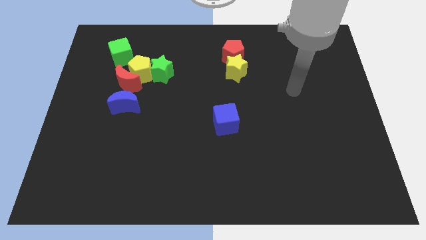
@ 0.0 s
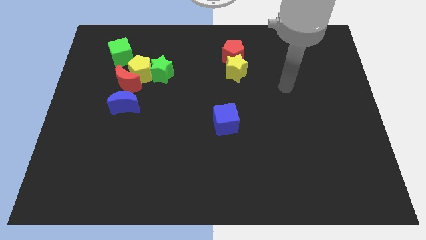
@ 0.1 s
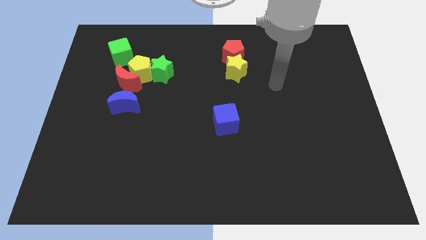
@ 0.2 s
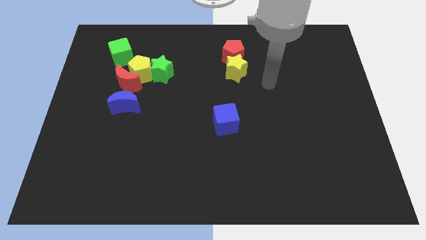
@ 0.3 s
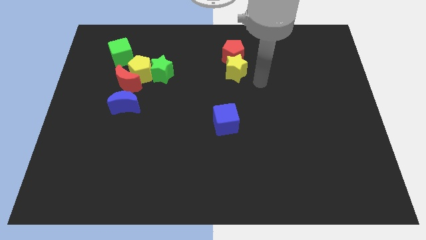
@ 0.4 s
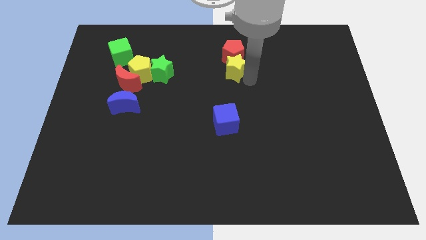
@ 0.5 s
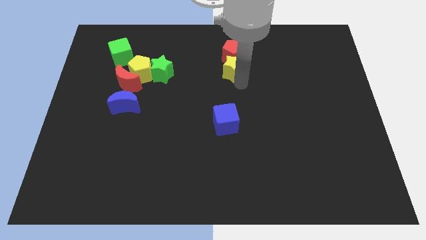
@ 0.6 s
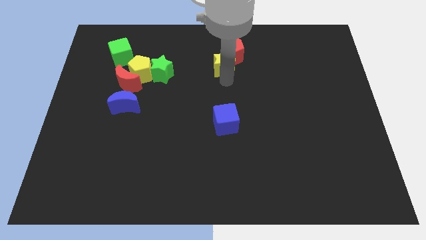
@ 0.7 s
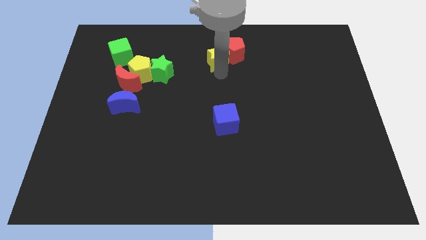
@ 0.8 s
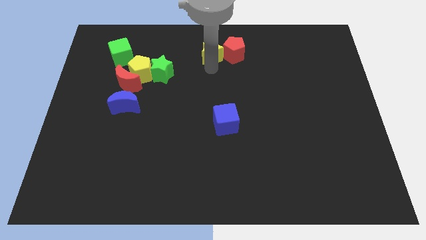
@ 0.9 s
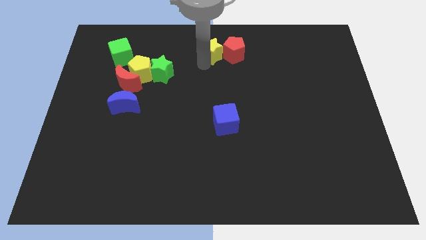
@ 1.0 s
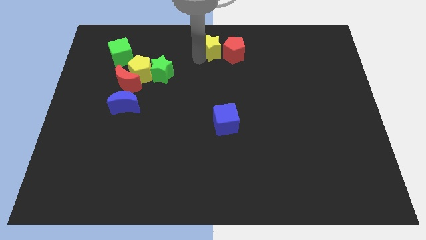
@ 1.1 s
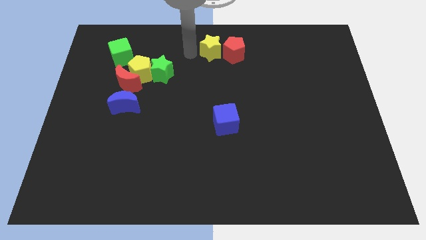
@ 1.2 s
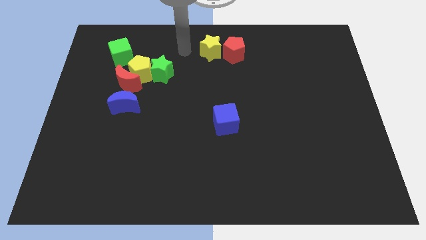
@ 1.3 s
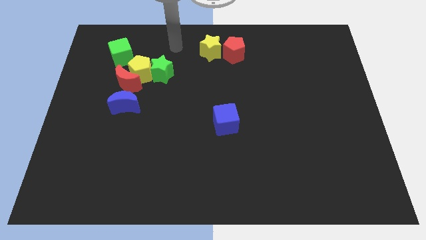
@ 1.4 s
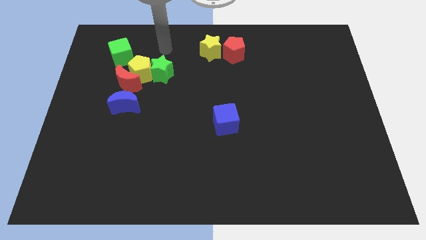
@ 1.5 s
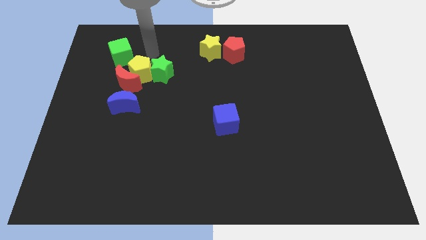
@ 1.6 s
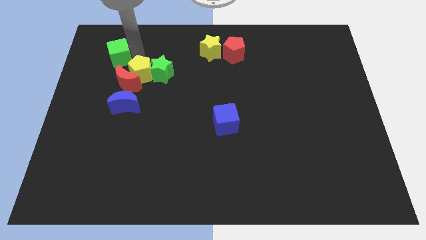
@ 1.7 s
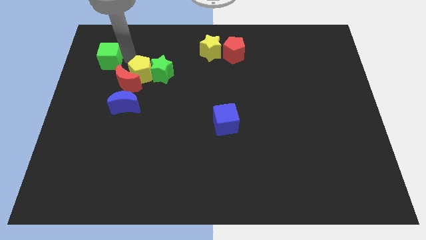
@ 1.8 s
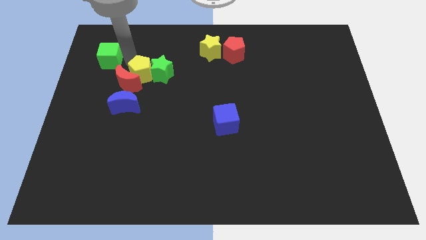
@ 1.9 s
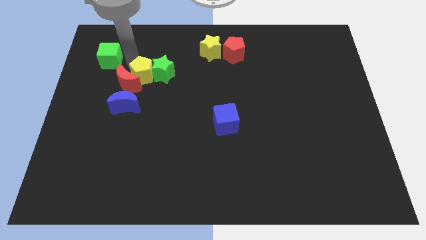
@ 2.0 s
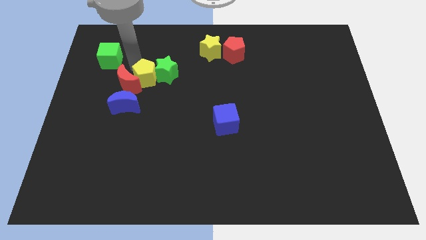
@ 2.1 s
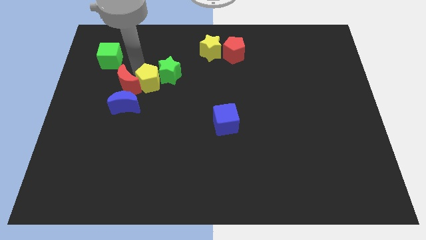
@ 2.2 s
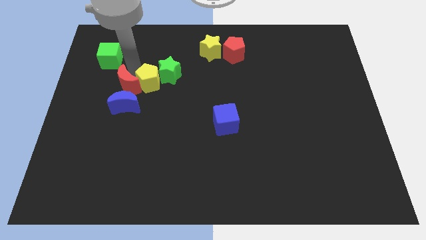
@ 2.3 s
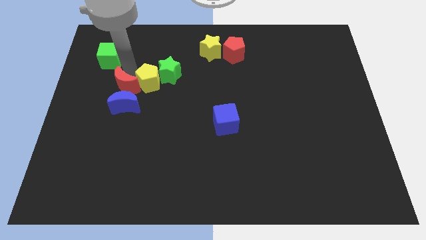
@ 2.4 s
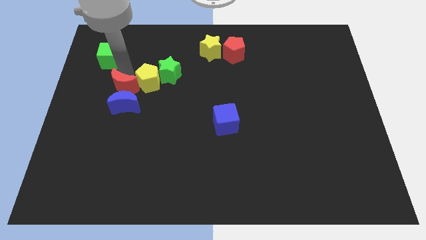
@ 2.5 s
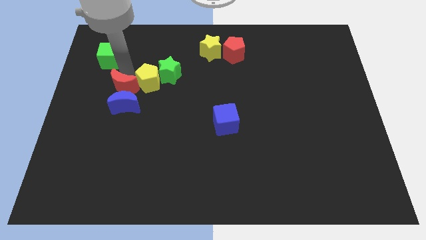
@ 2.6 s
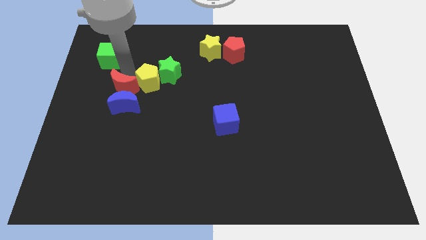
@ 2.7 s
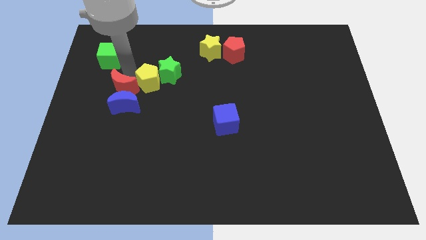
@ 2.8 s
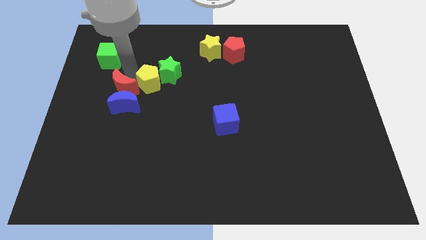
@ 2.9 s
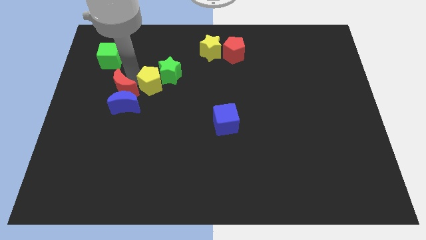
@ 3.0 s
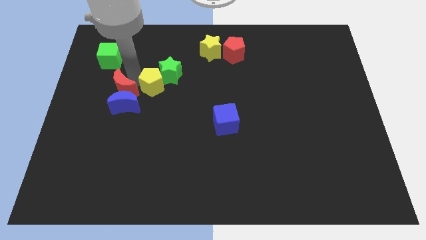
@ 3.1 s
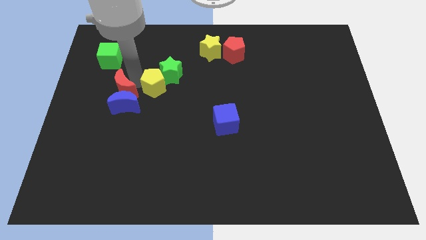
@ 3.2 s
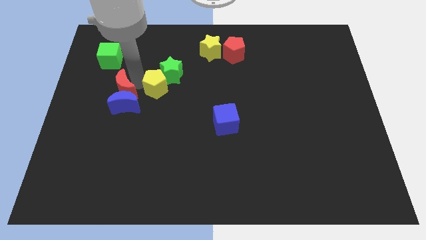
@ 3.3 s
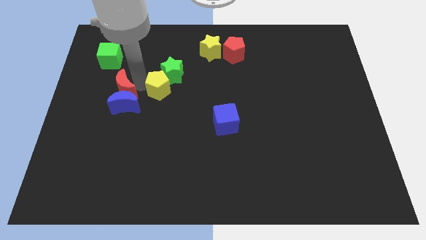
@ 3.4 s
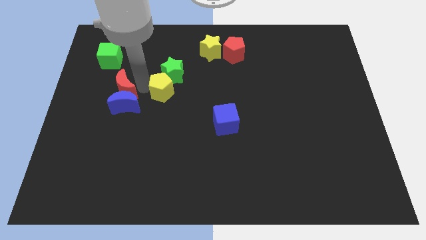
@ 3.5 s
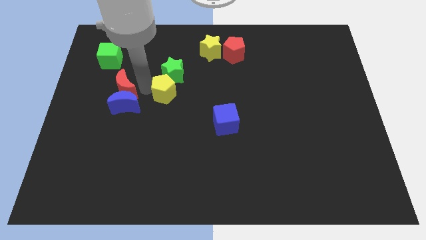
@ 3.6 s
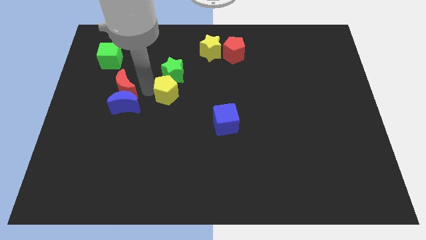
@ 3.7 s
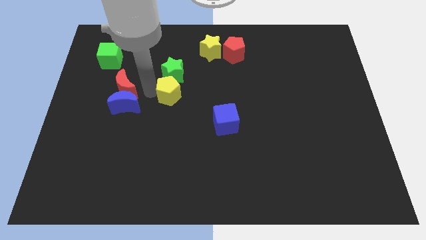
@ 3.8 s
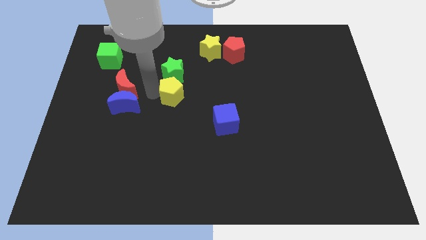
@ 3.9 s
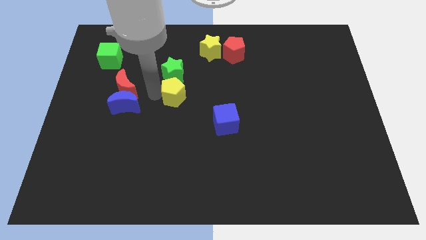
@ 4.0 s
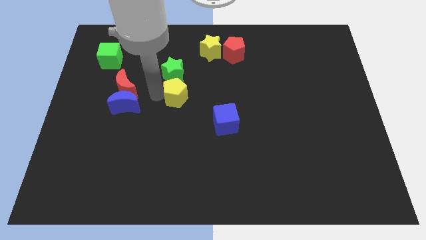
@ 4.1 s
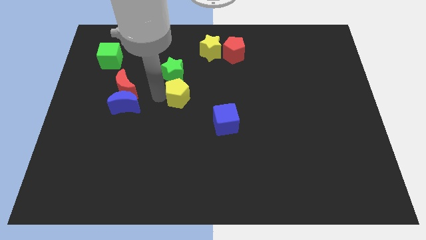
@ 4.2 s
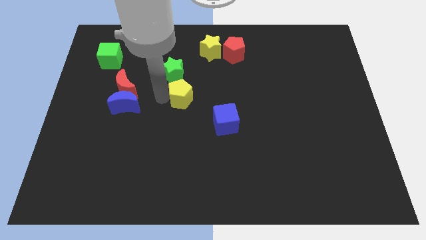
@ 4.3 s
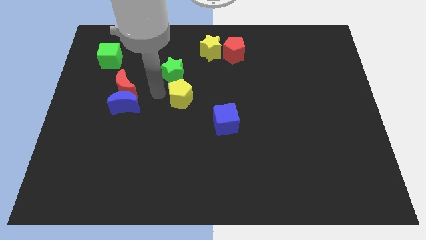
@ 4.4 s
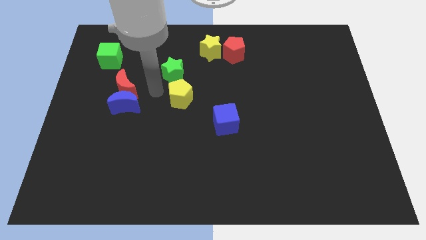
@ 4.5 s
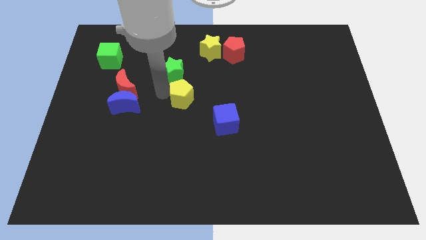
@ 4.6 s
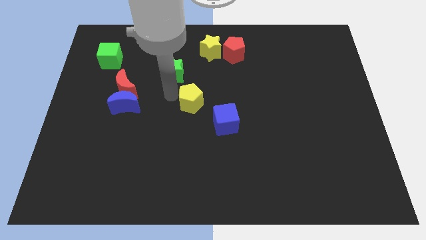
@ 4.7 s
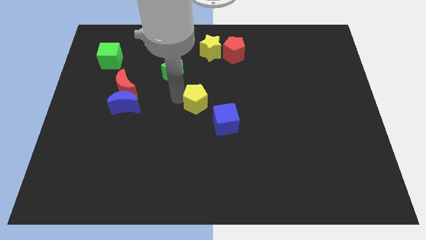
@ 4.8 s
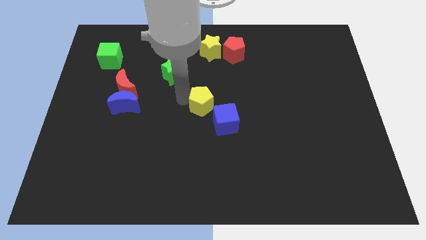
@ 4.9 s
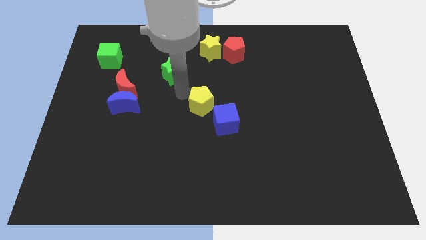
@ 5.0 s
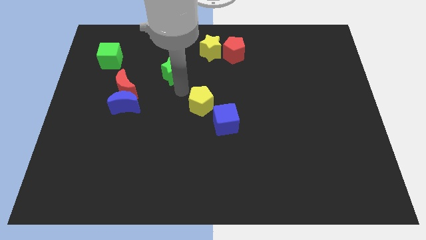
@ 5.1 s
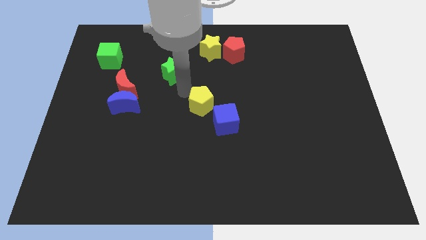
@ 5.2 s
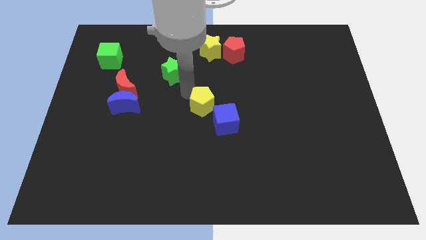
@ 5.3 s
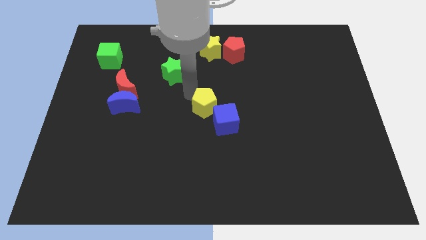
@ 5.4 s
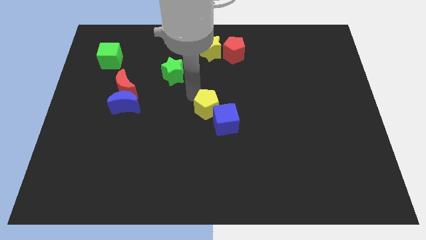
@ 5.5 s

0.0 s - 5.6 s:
slide the yellow pentagon next to the blue cube

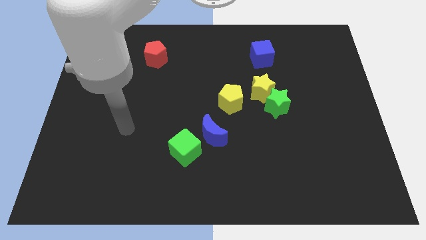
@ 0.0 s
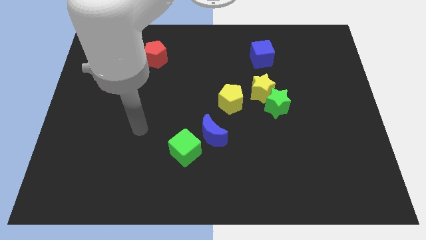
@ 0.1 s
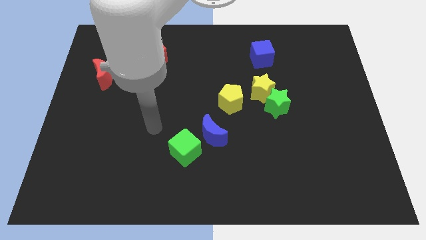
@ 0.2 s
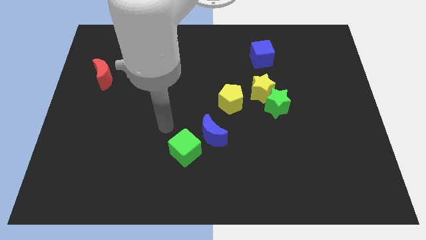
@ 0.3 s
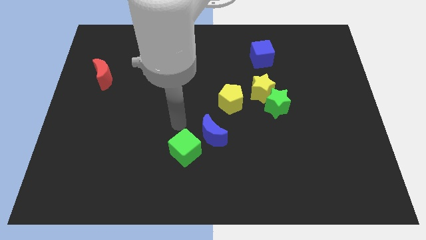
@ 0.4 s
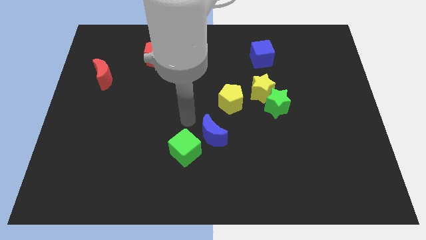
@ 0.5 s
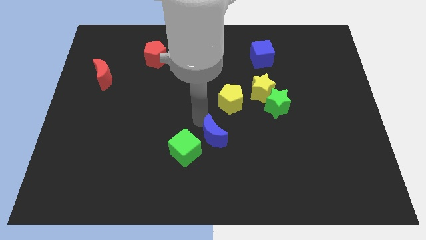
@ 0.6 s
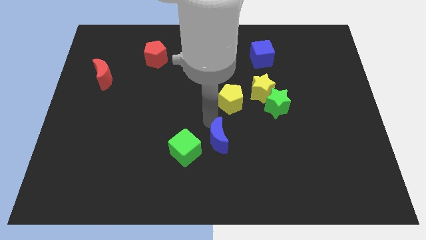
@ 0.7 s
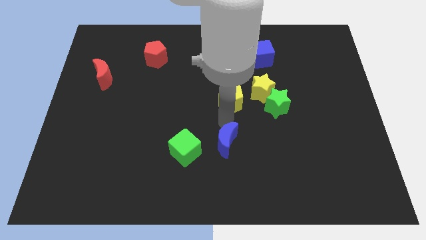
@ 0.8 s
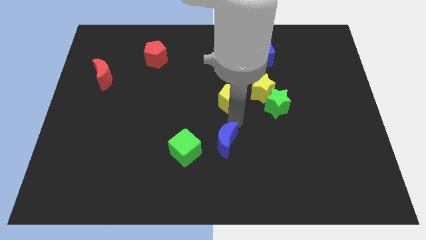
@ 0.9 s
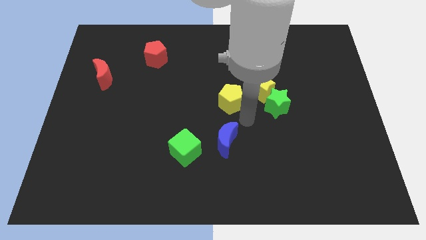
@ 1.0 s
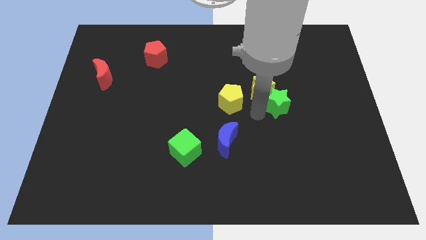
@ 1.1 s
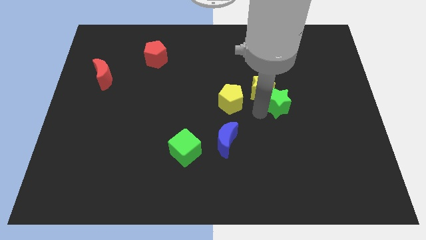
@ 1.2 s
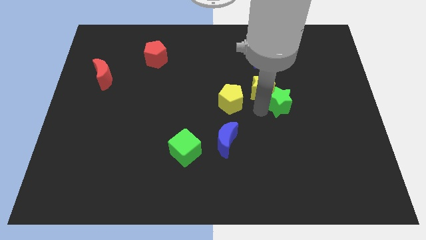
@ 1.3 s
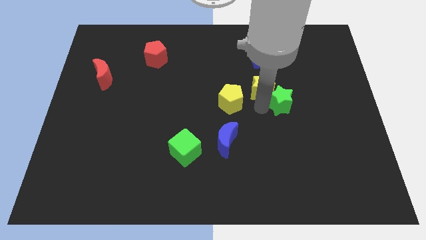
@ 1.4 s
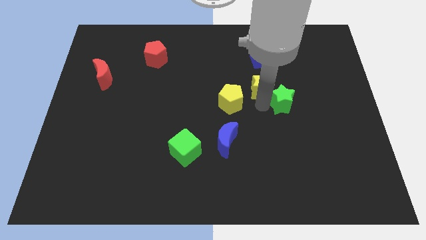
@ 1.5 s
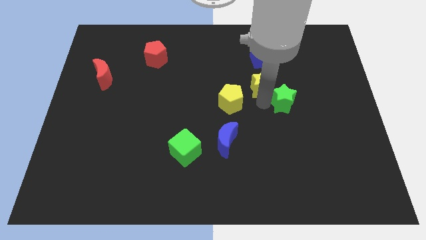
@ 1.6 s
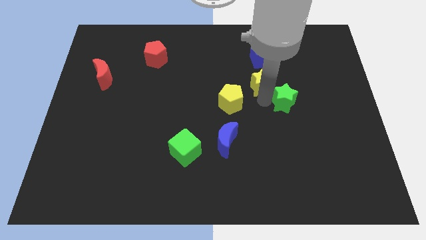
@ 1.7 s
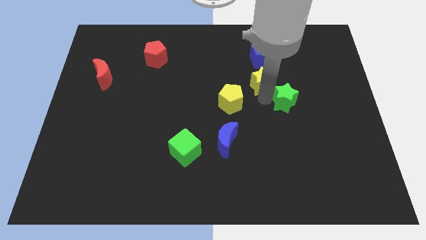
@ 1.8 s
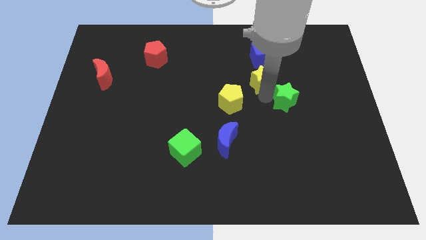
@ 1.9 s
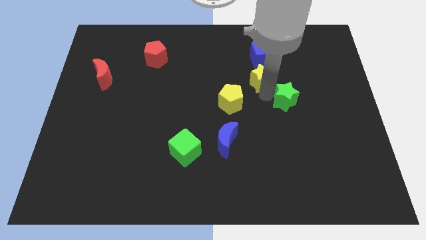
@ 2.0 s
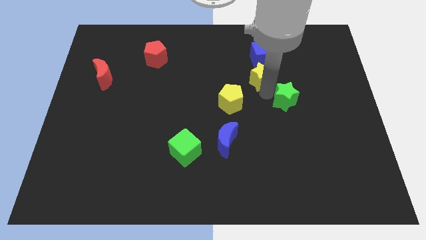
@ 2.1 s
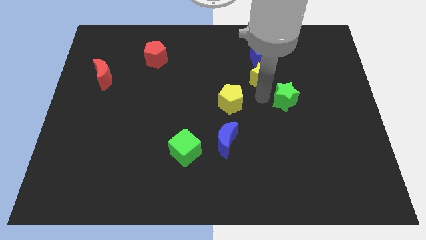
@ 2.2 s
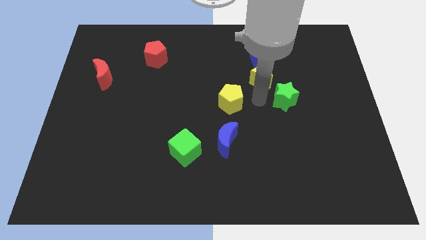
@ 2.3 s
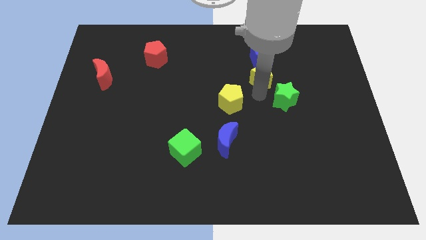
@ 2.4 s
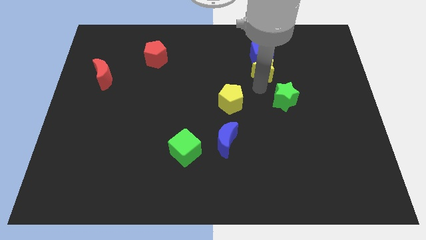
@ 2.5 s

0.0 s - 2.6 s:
slide the yellow star next to the blue cube
